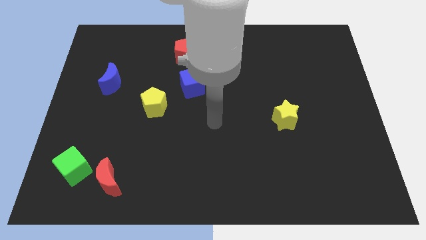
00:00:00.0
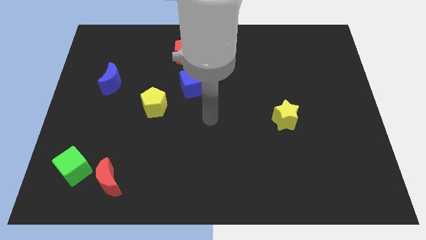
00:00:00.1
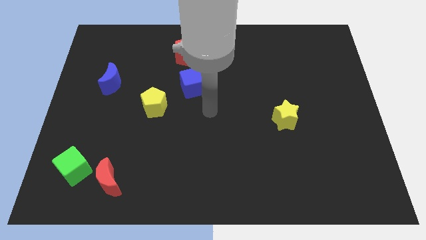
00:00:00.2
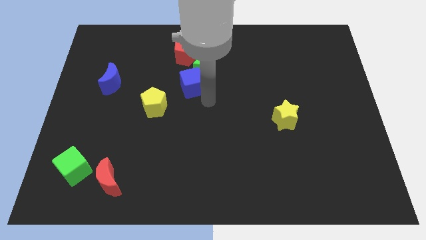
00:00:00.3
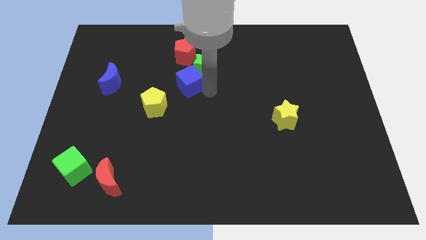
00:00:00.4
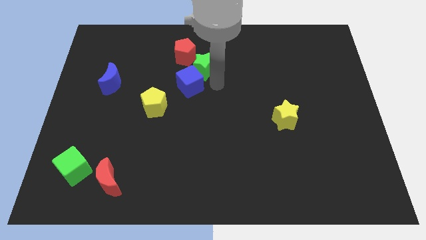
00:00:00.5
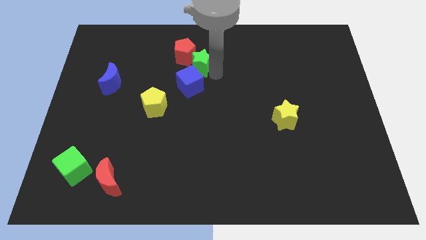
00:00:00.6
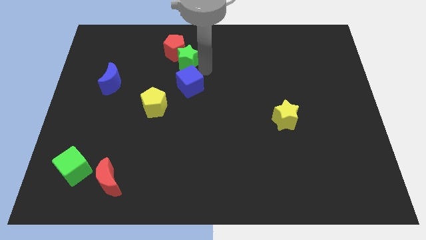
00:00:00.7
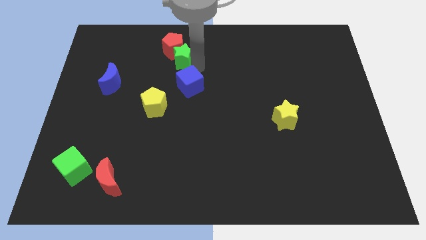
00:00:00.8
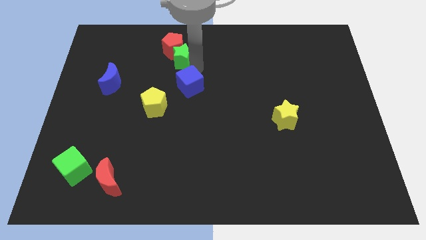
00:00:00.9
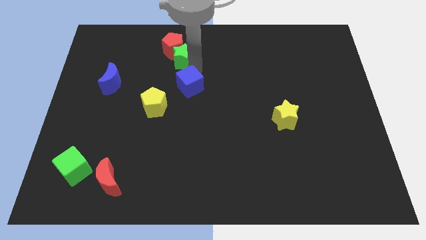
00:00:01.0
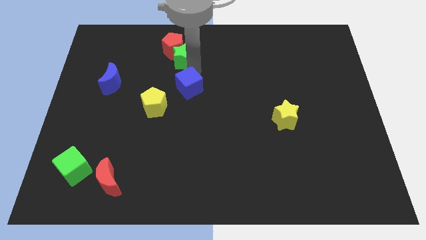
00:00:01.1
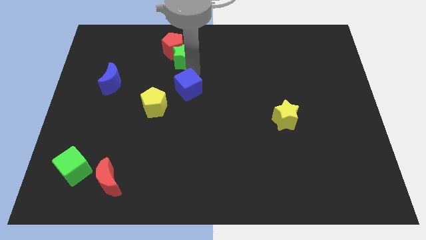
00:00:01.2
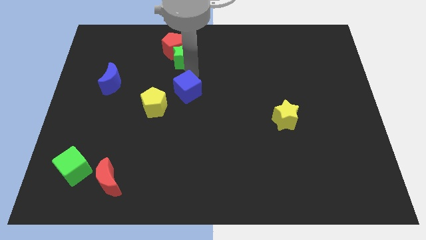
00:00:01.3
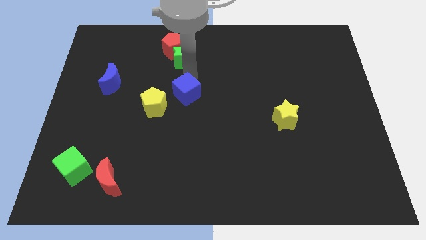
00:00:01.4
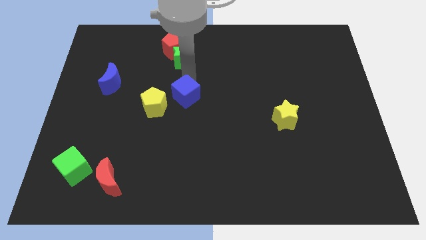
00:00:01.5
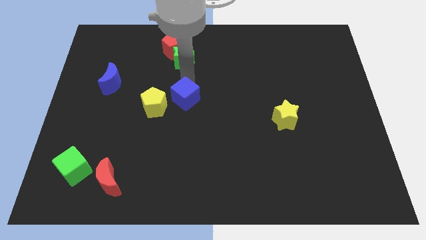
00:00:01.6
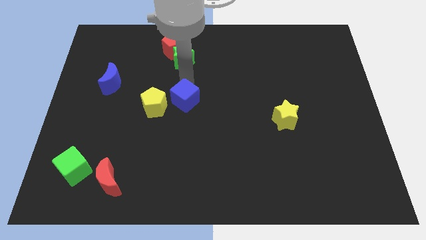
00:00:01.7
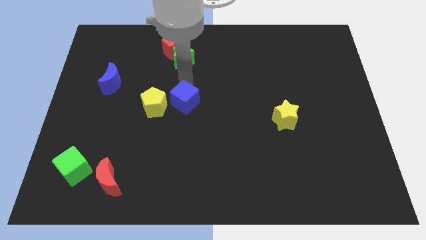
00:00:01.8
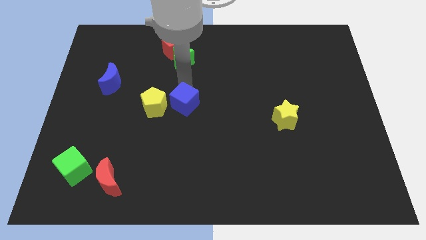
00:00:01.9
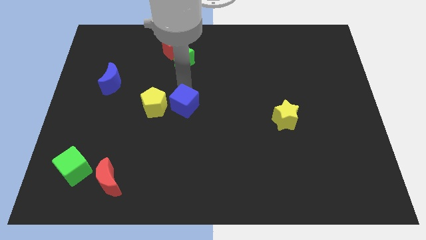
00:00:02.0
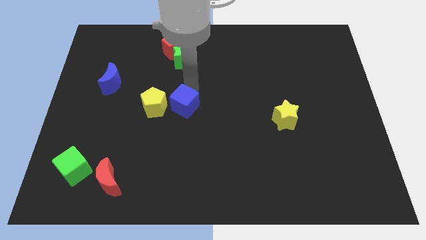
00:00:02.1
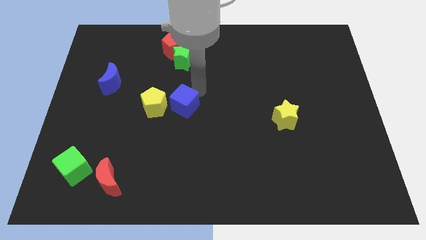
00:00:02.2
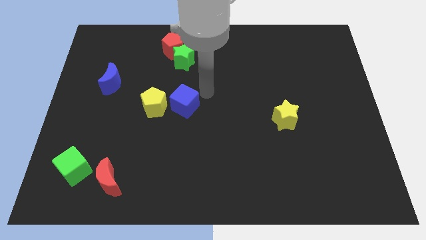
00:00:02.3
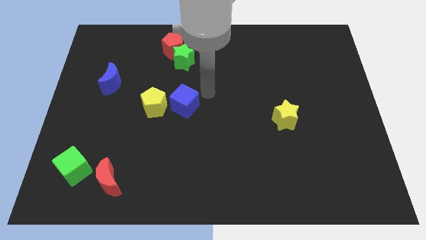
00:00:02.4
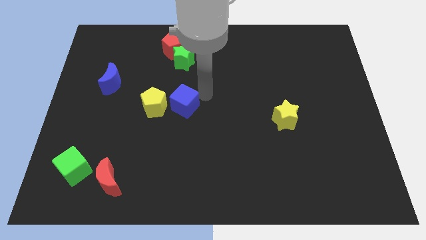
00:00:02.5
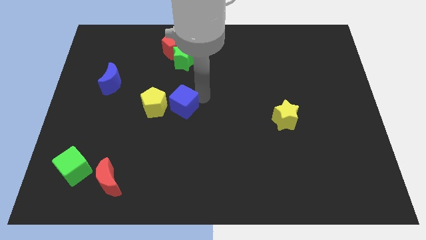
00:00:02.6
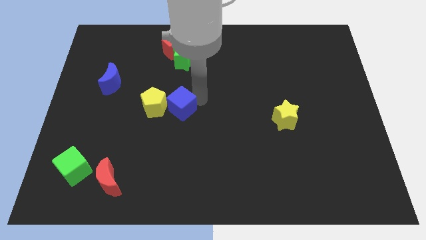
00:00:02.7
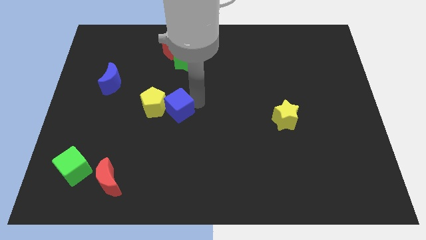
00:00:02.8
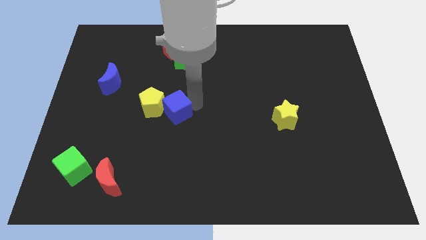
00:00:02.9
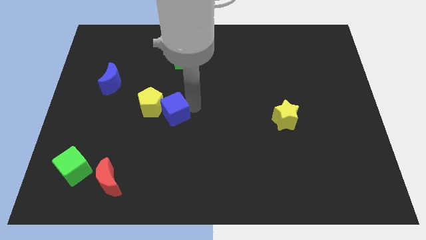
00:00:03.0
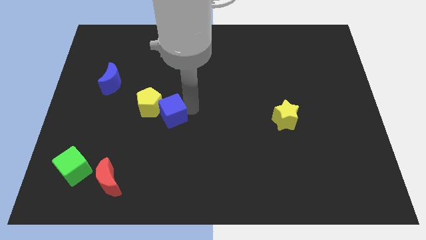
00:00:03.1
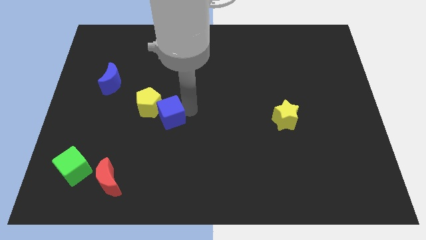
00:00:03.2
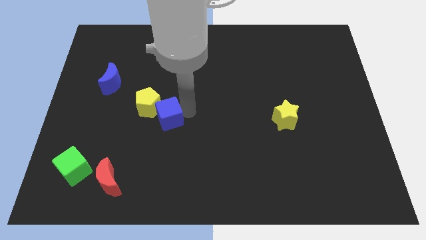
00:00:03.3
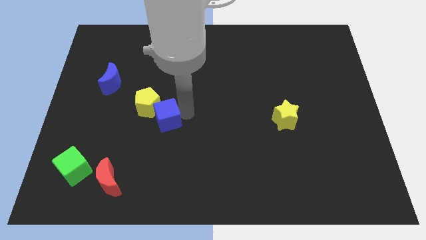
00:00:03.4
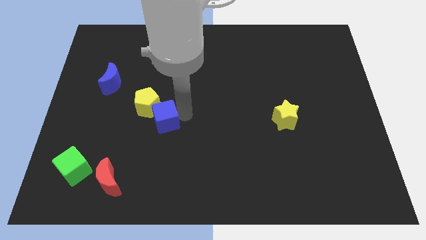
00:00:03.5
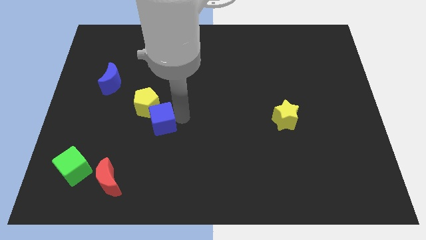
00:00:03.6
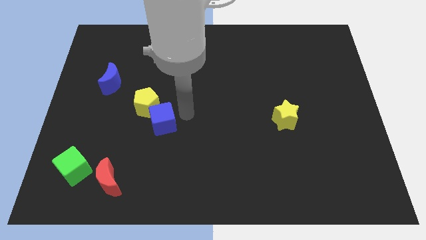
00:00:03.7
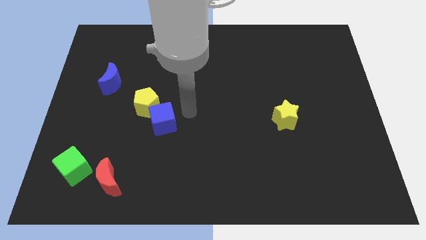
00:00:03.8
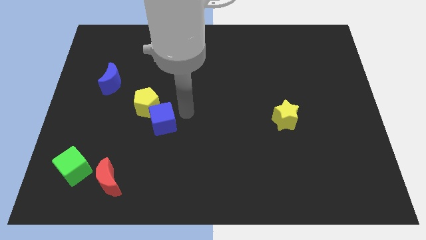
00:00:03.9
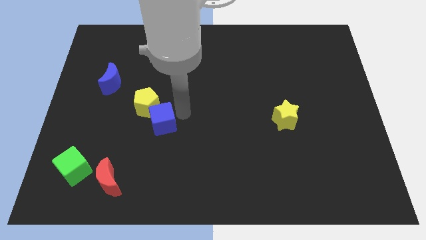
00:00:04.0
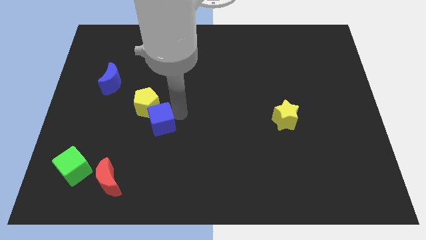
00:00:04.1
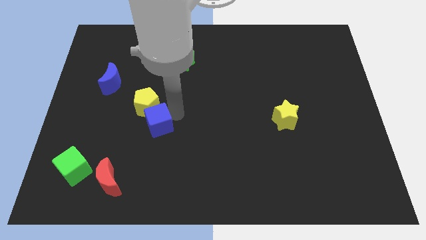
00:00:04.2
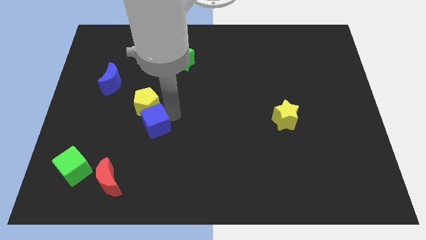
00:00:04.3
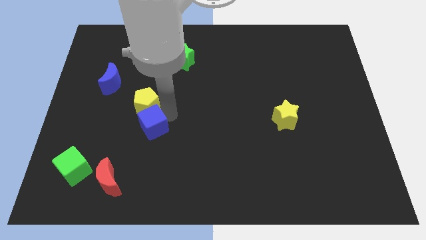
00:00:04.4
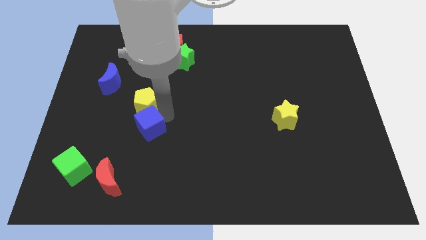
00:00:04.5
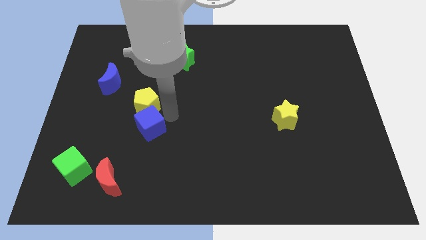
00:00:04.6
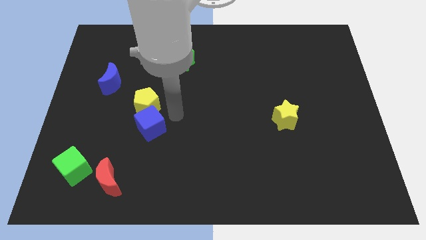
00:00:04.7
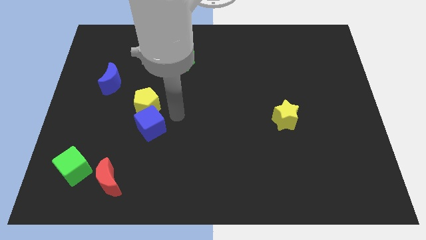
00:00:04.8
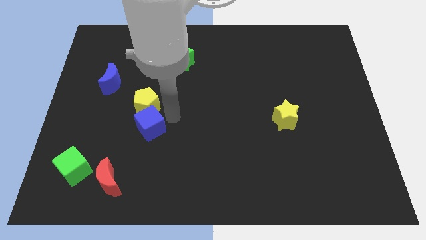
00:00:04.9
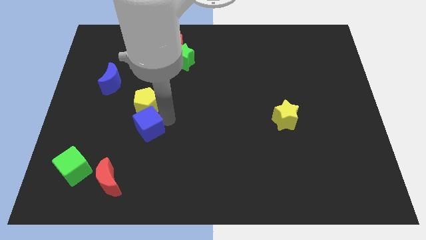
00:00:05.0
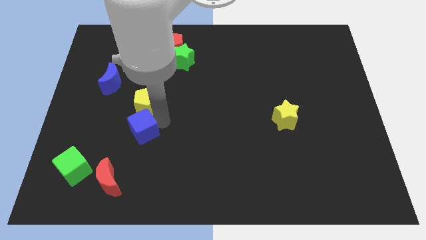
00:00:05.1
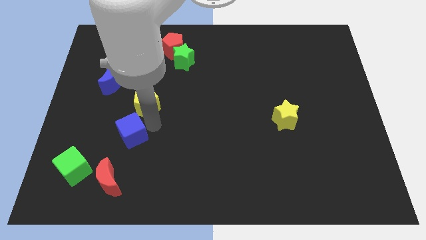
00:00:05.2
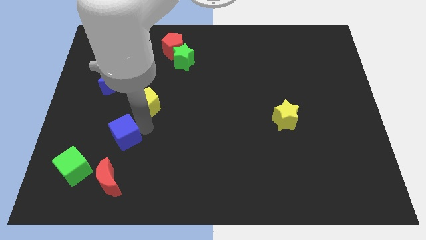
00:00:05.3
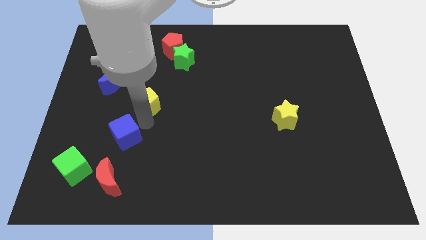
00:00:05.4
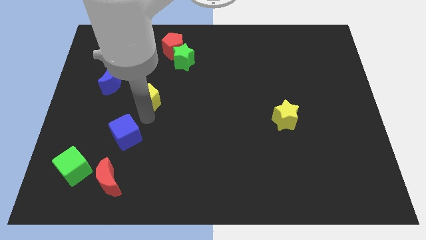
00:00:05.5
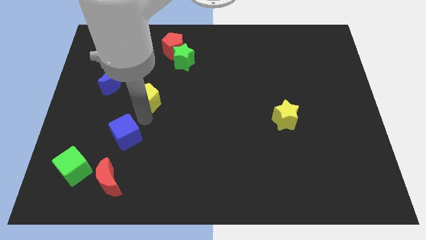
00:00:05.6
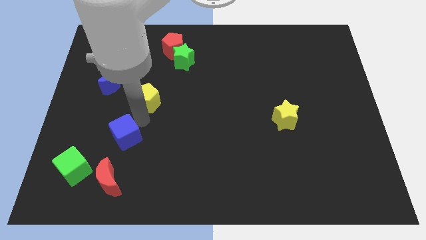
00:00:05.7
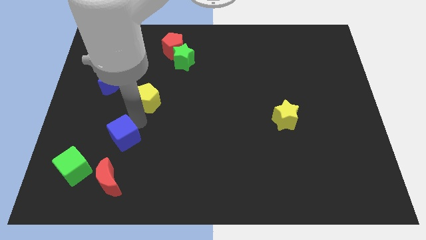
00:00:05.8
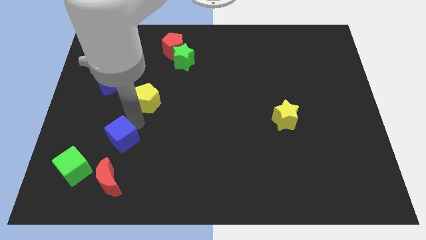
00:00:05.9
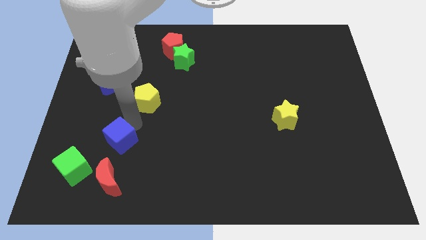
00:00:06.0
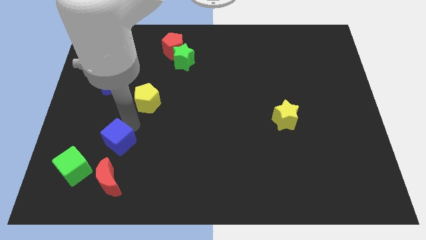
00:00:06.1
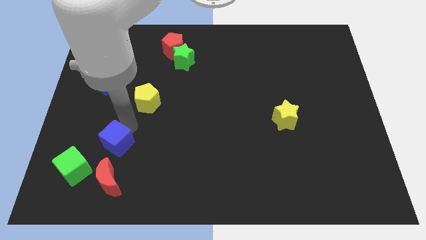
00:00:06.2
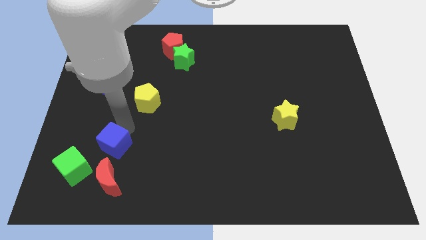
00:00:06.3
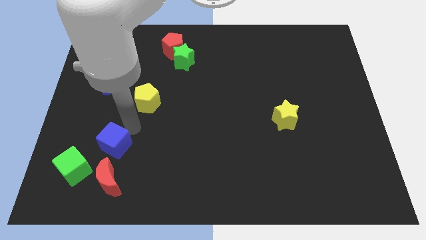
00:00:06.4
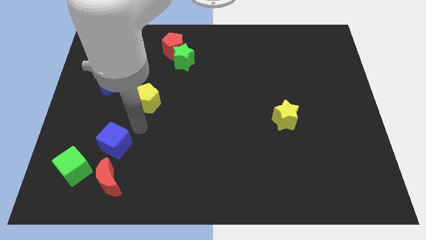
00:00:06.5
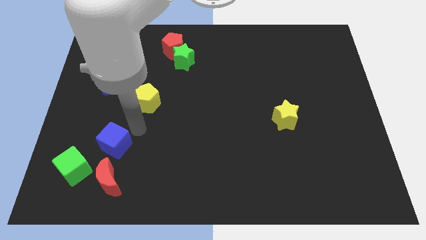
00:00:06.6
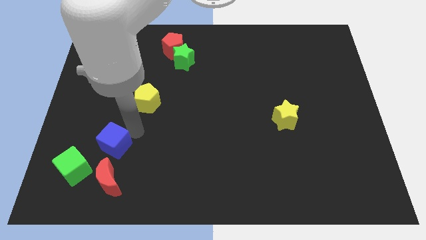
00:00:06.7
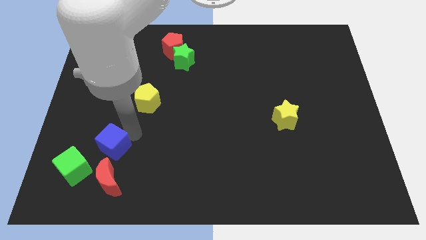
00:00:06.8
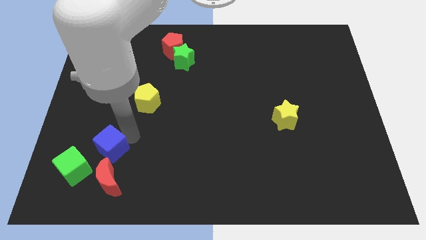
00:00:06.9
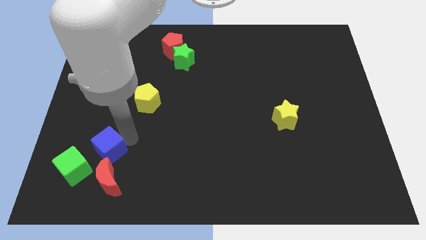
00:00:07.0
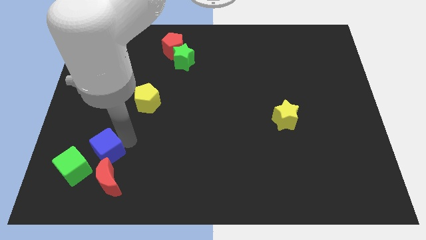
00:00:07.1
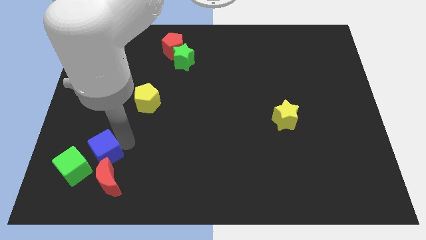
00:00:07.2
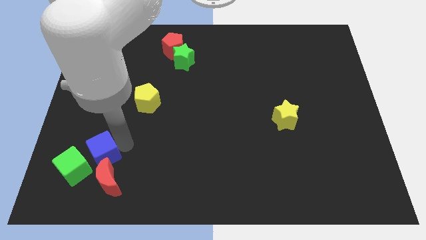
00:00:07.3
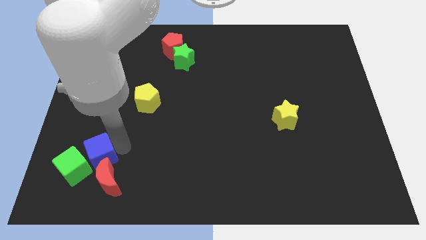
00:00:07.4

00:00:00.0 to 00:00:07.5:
slide the blue cube next to the green cube
